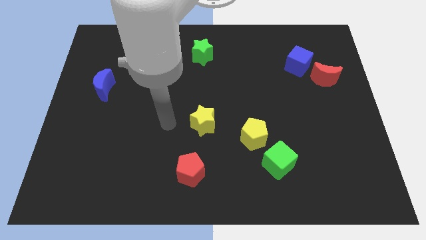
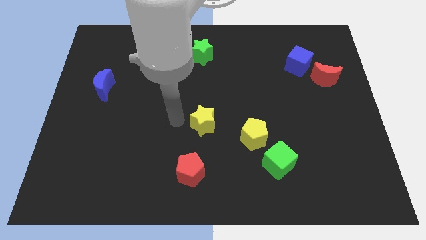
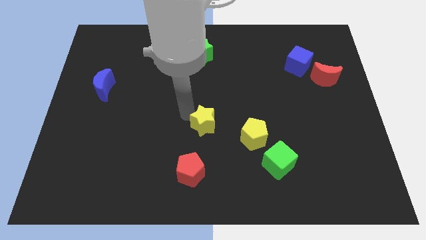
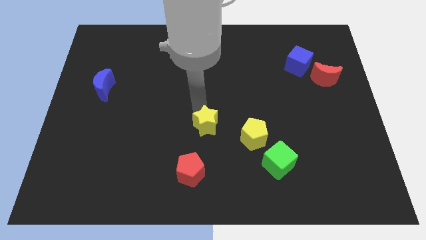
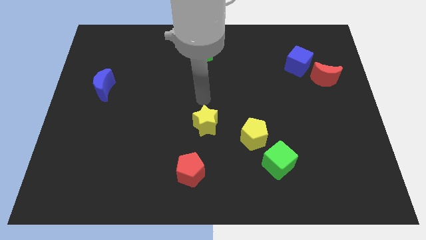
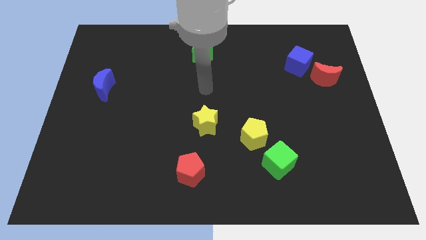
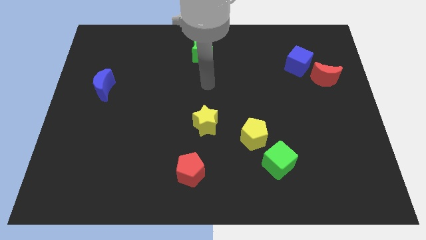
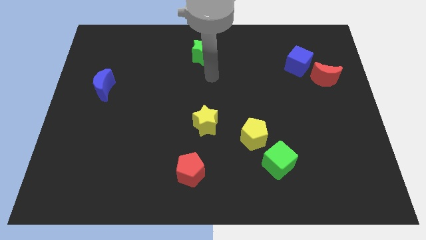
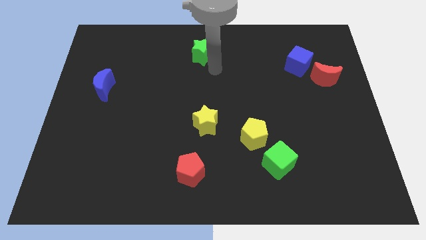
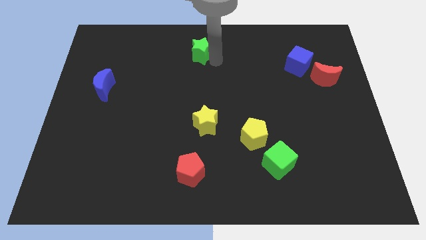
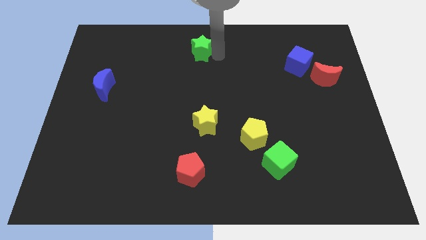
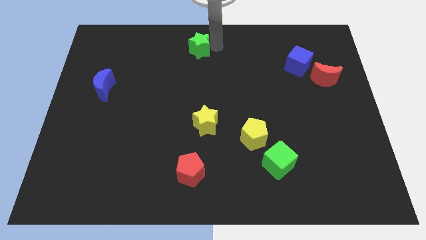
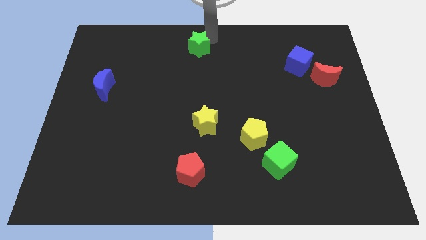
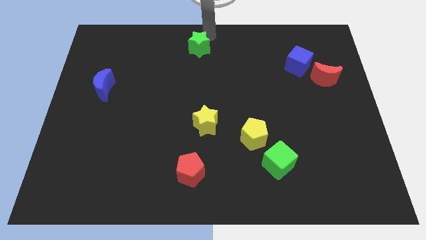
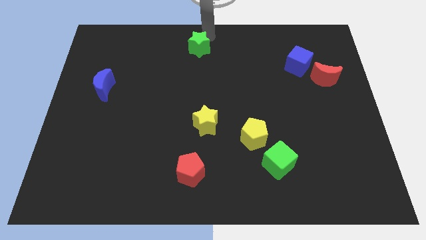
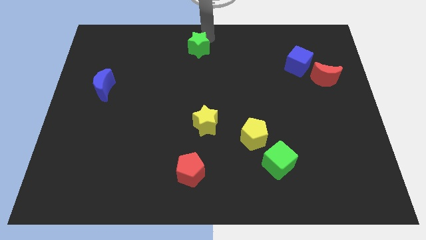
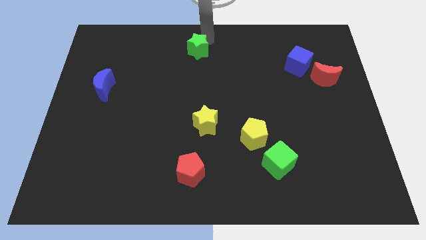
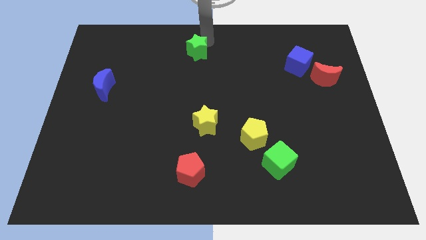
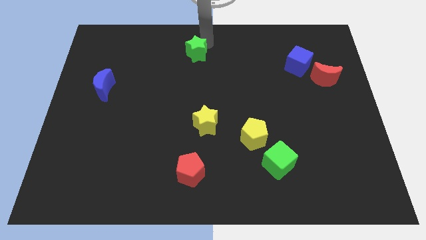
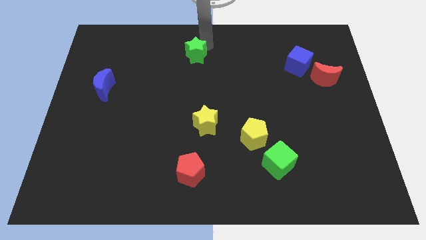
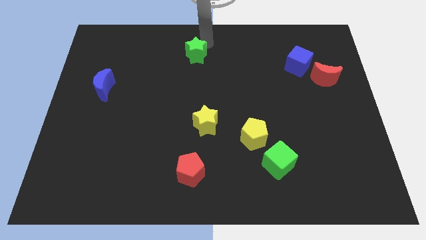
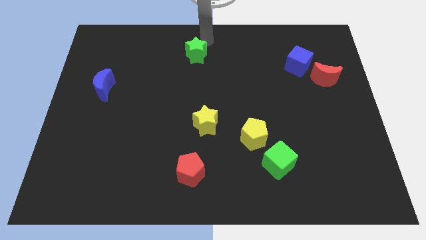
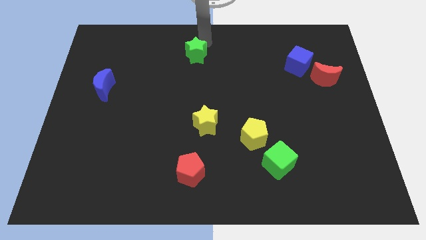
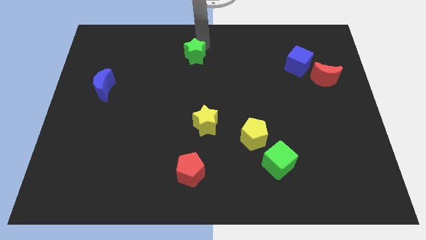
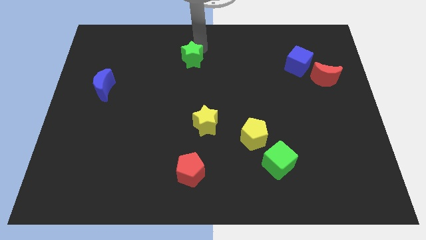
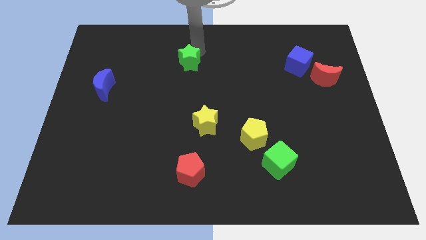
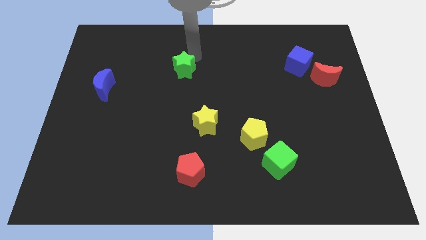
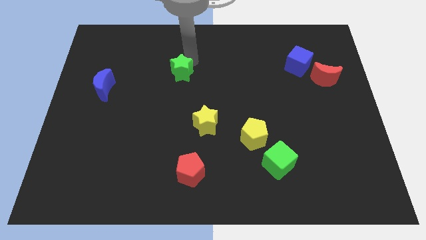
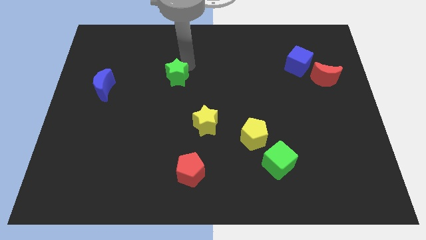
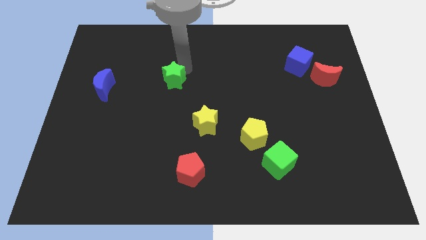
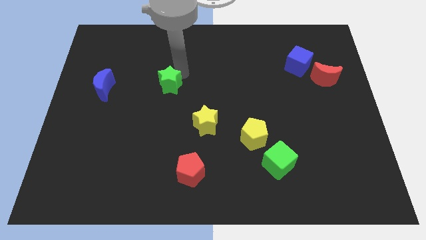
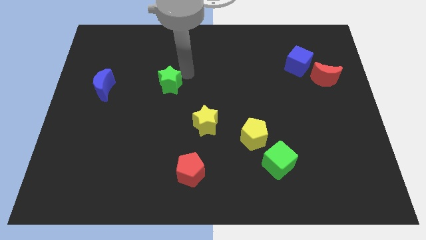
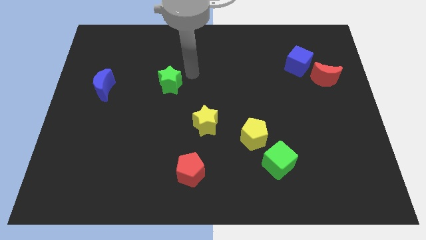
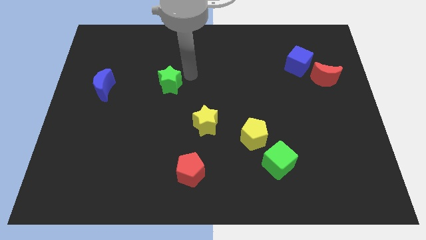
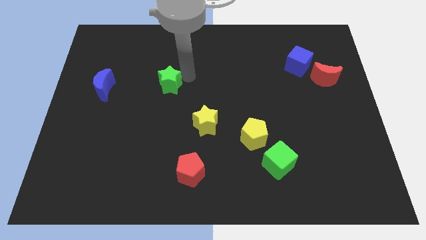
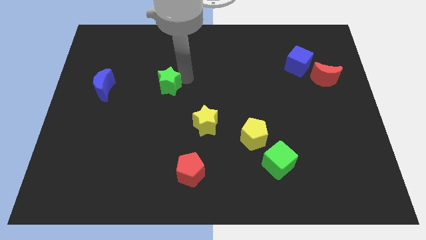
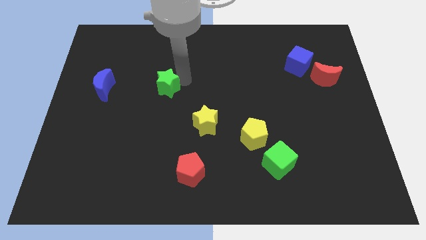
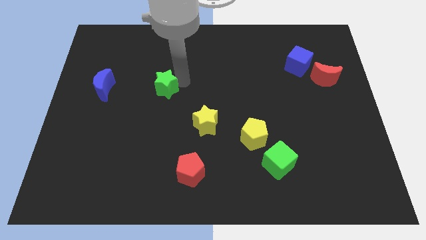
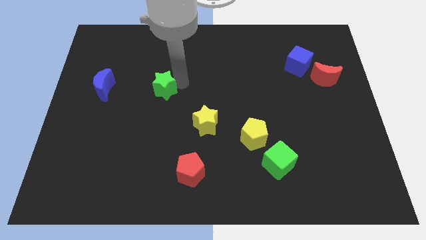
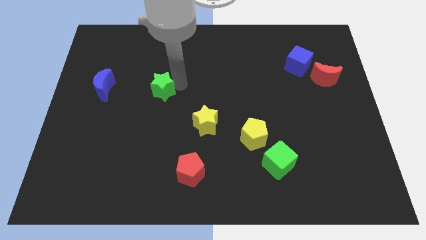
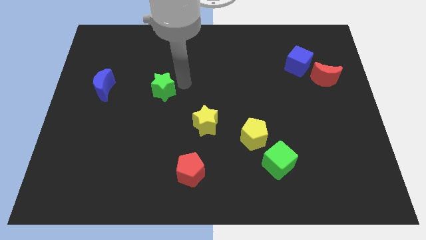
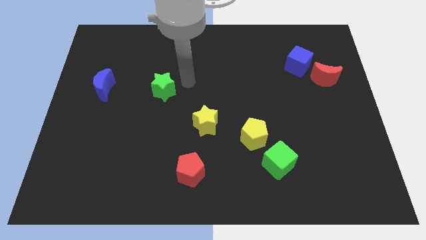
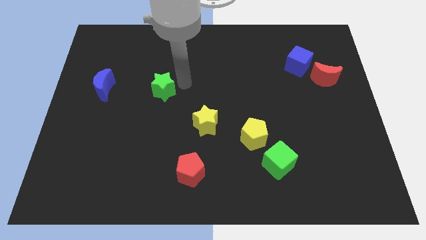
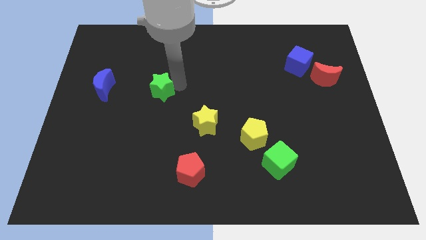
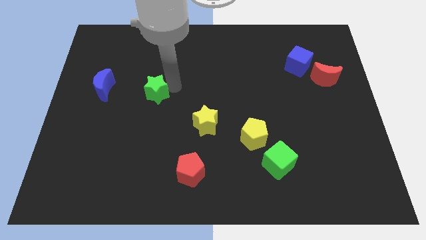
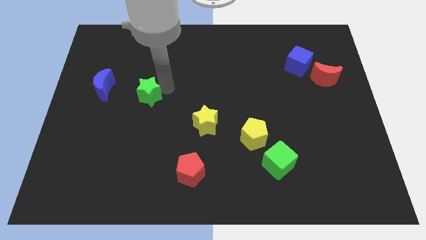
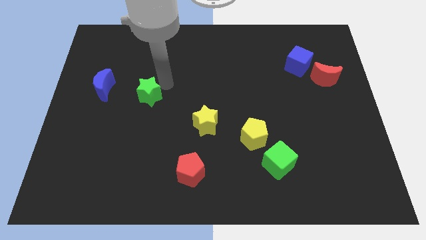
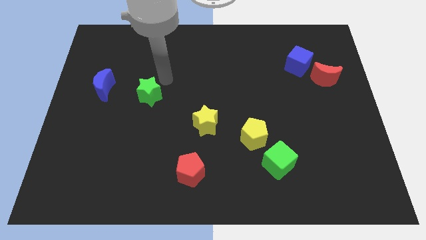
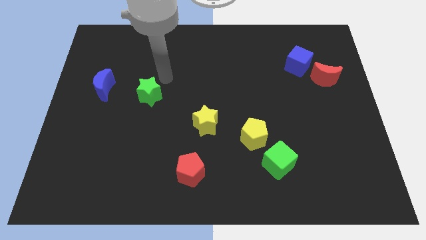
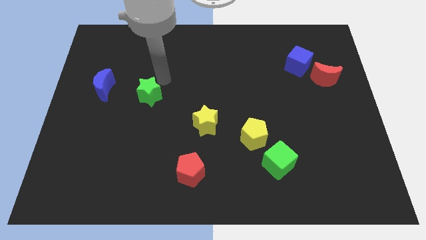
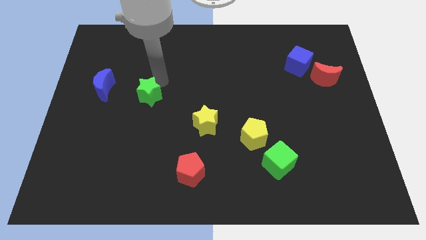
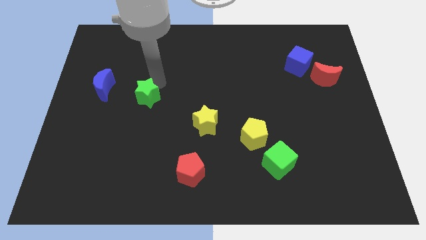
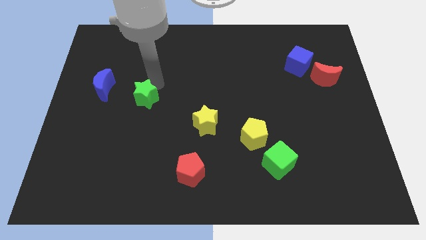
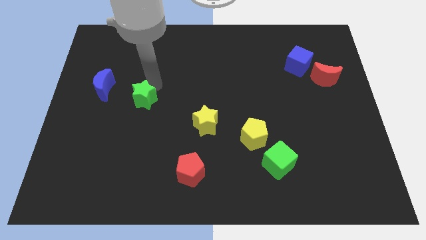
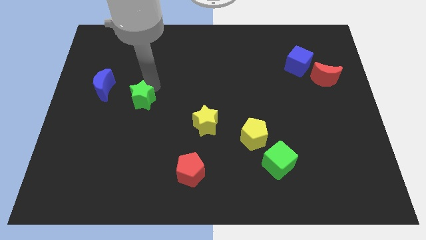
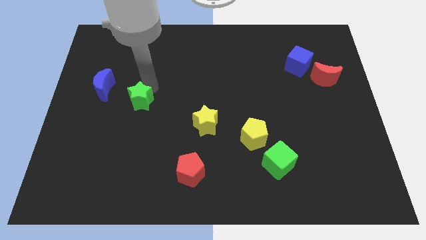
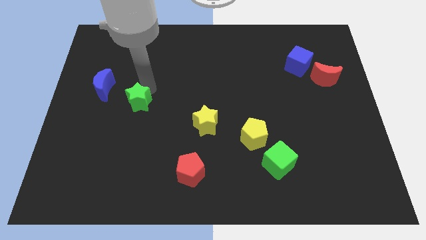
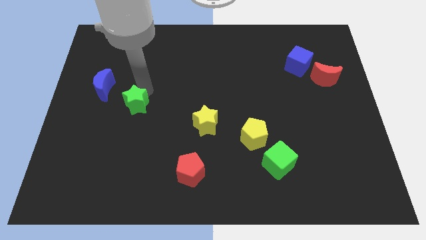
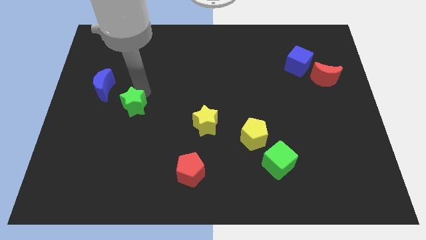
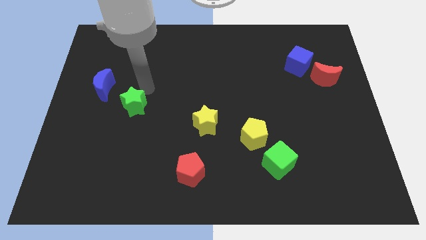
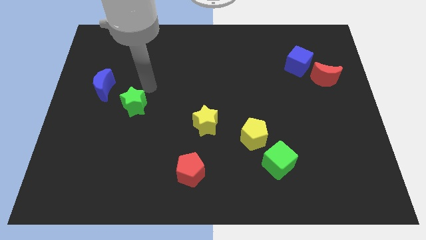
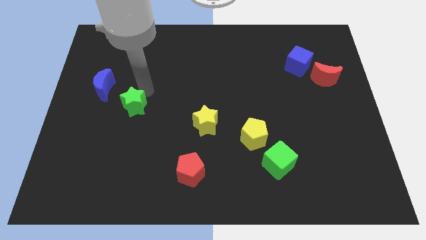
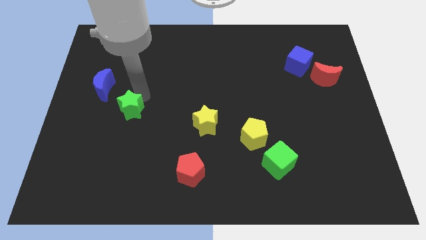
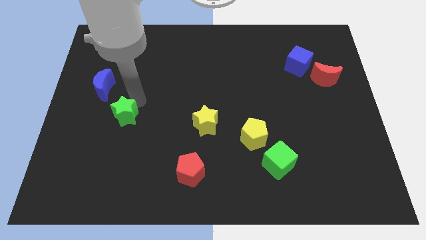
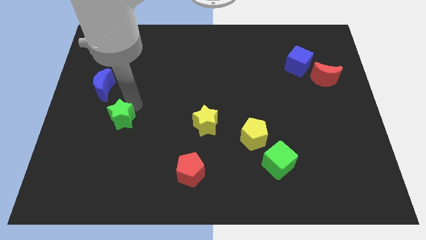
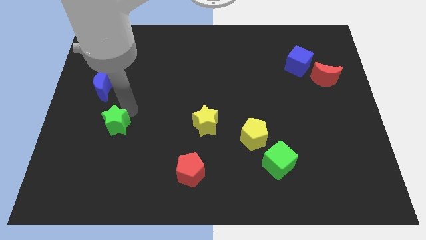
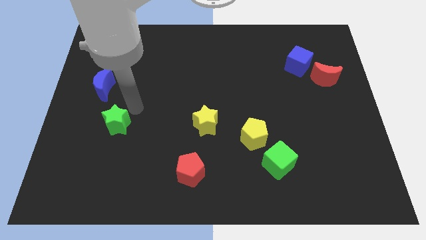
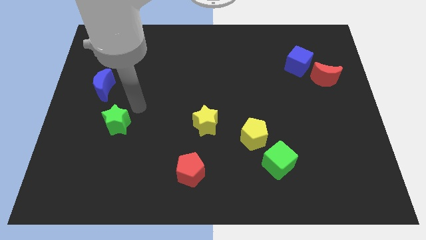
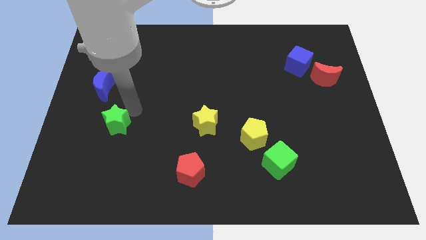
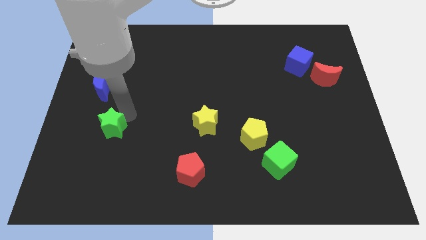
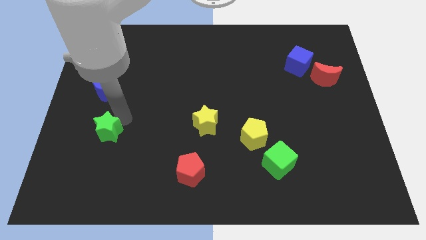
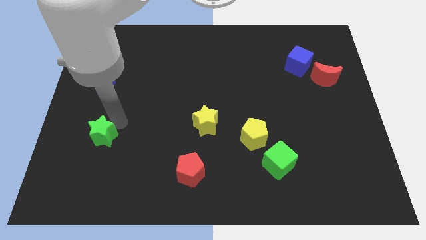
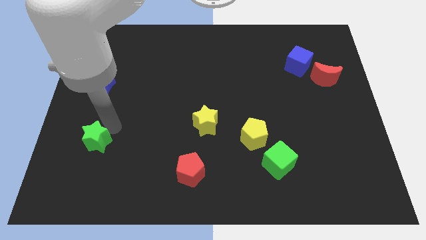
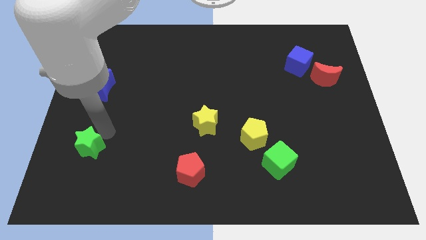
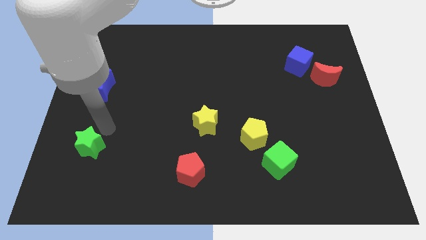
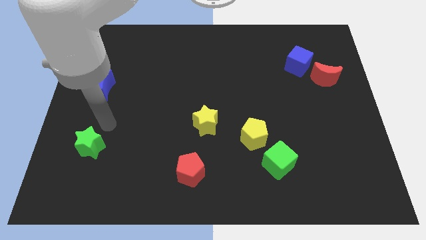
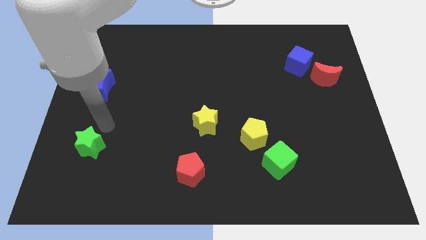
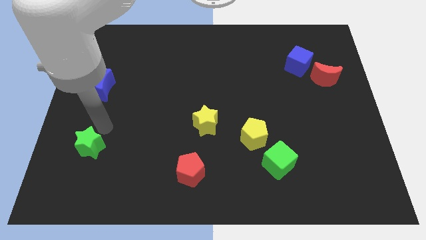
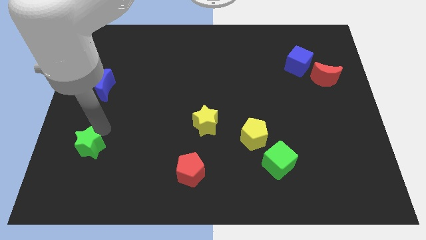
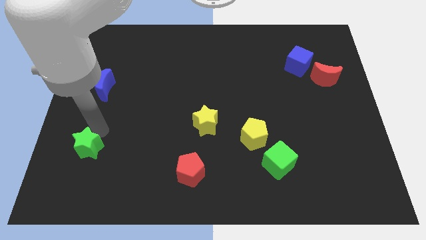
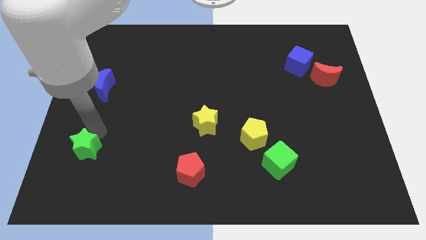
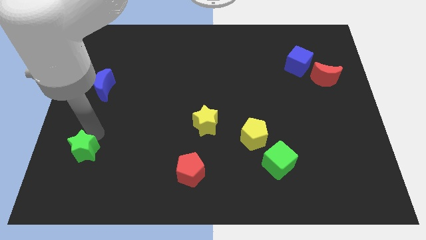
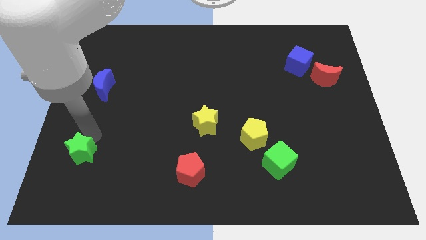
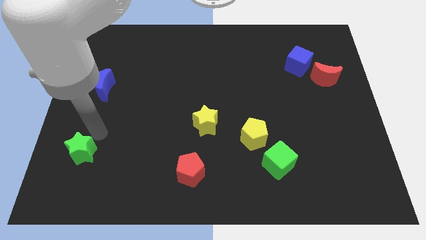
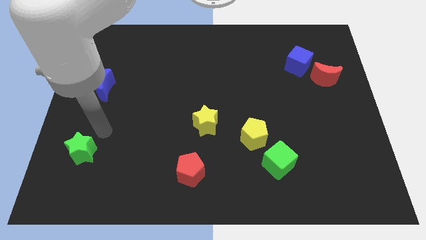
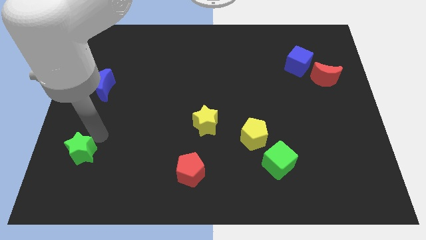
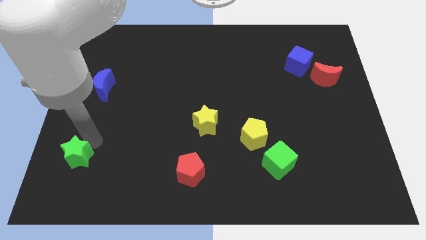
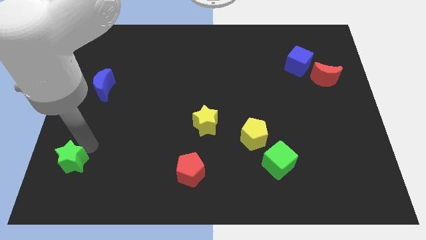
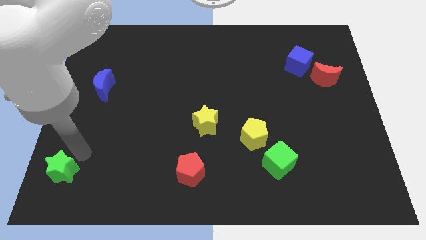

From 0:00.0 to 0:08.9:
move the green star to the bottom left corner
